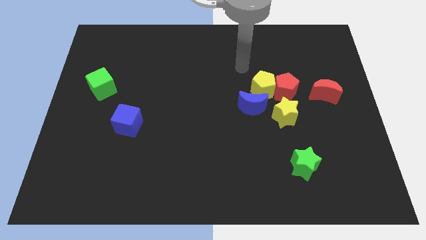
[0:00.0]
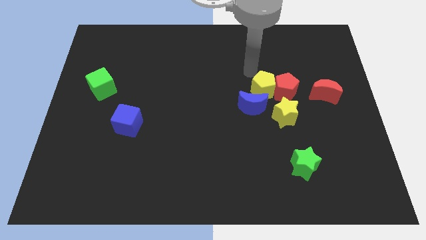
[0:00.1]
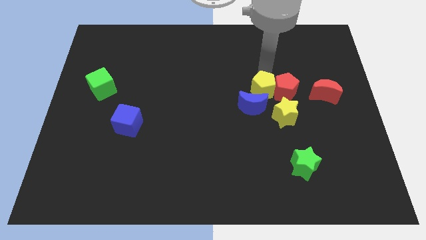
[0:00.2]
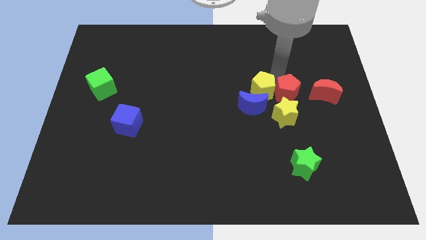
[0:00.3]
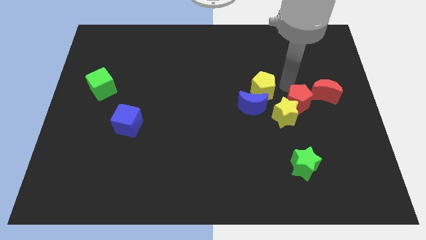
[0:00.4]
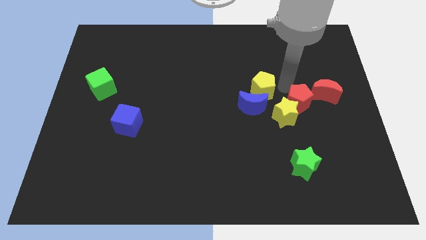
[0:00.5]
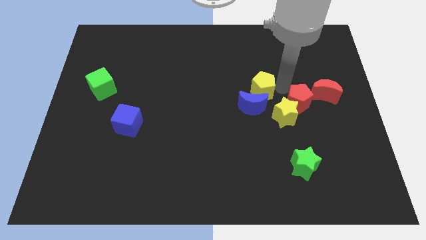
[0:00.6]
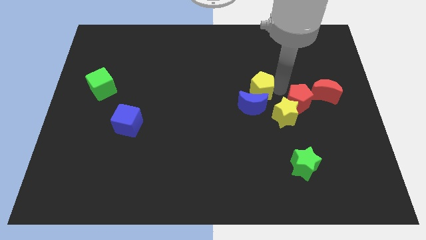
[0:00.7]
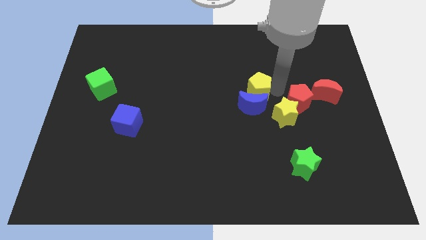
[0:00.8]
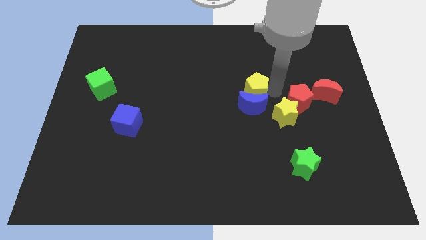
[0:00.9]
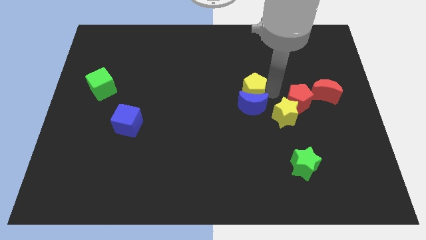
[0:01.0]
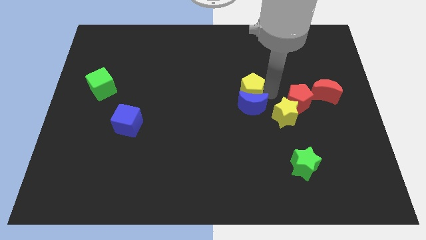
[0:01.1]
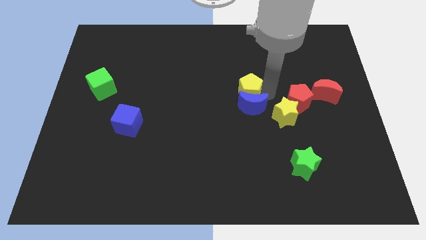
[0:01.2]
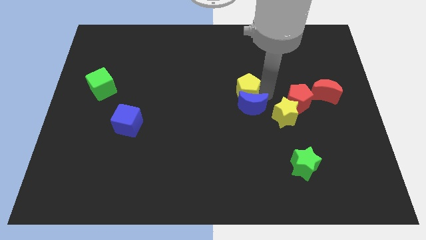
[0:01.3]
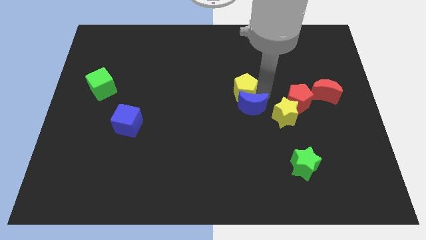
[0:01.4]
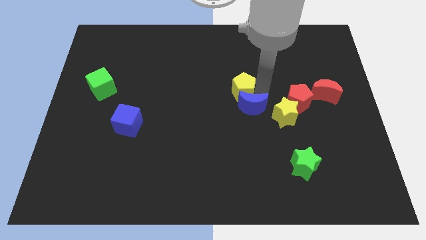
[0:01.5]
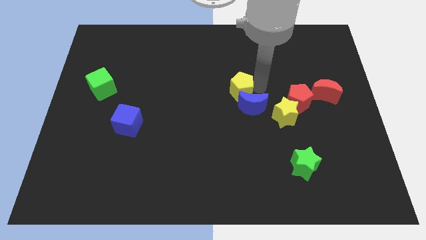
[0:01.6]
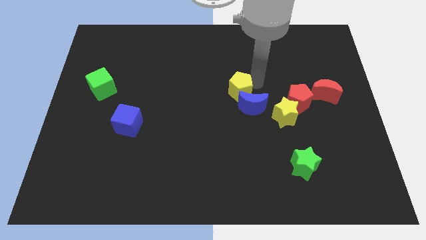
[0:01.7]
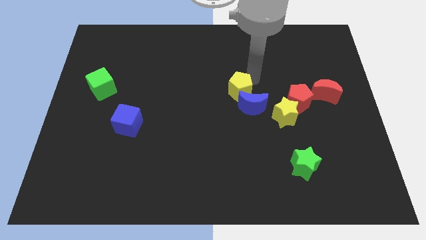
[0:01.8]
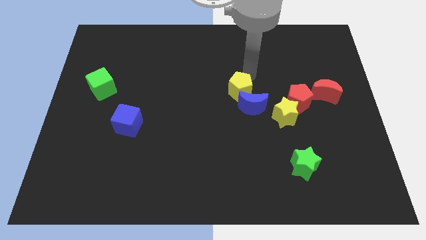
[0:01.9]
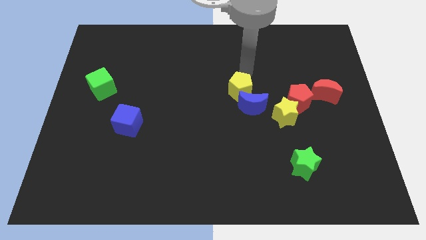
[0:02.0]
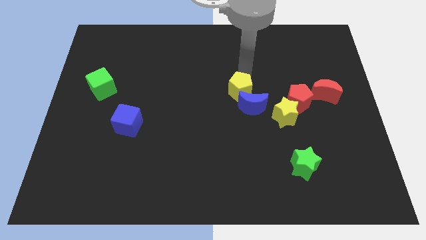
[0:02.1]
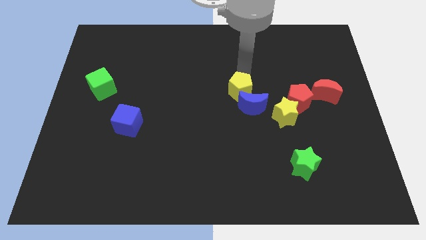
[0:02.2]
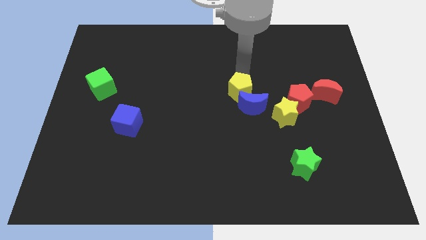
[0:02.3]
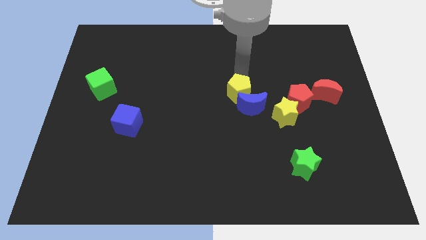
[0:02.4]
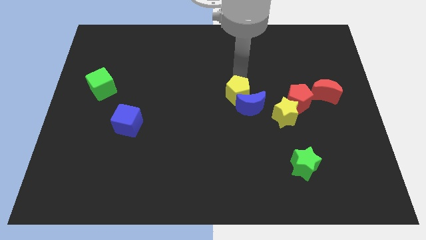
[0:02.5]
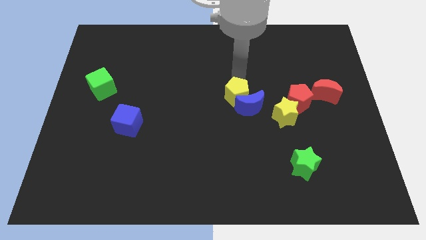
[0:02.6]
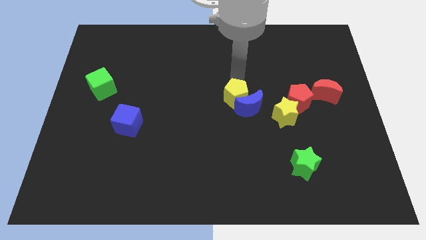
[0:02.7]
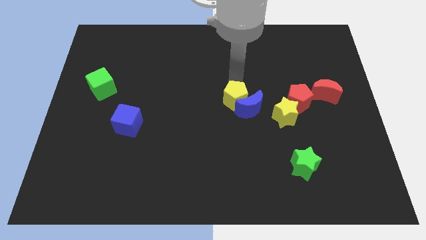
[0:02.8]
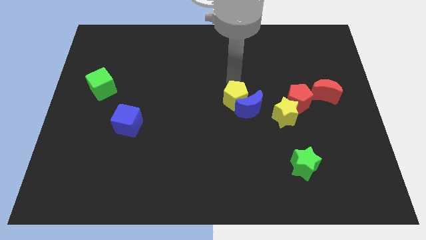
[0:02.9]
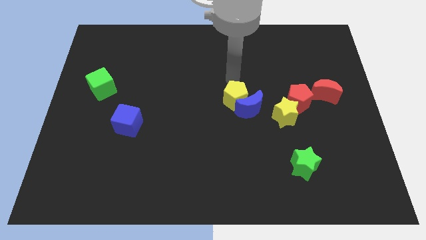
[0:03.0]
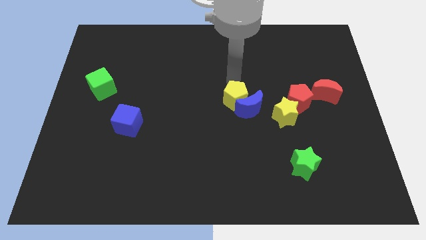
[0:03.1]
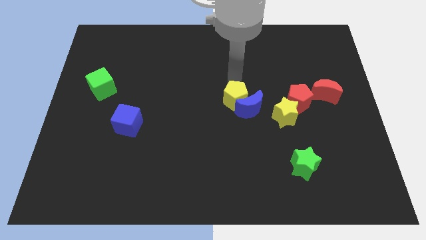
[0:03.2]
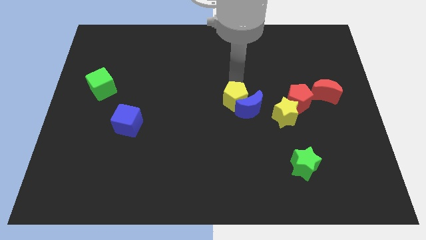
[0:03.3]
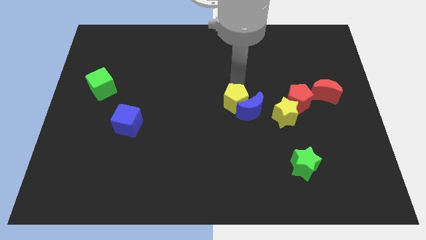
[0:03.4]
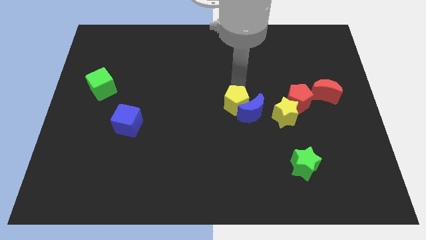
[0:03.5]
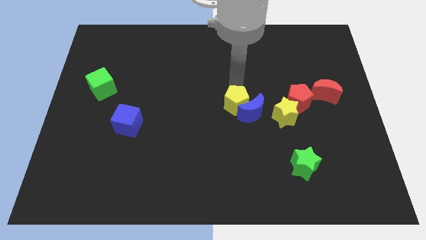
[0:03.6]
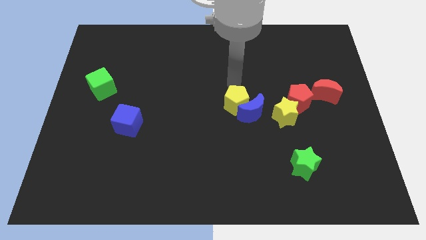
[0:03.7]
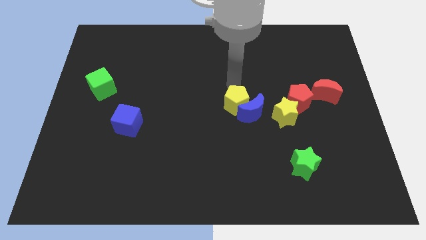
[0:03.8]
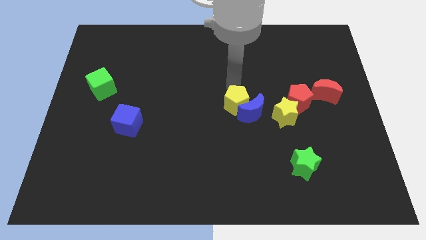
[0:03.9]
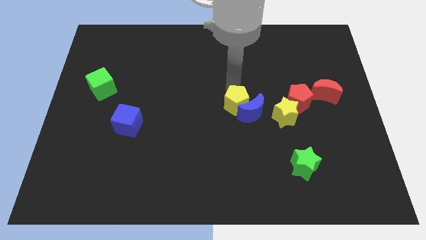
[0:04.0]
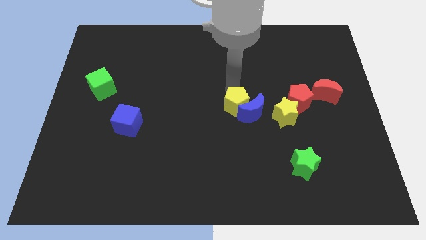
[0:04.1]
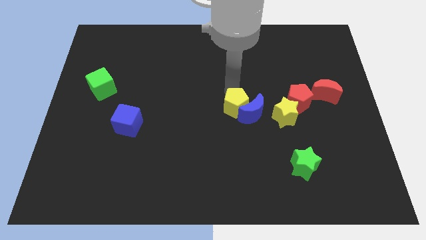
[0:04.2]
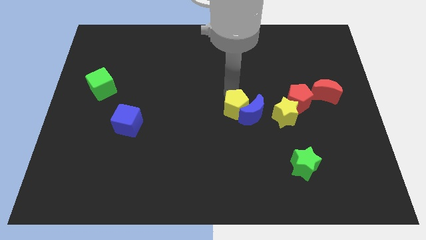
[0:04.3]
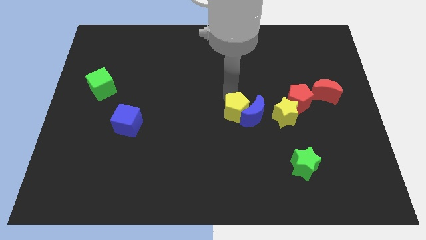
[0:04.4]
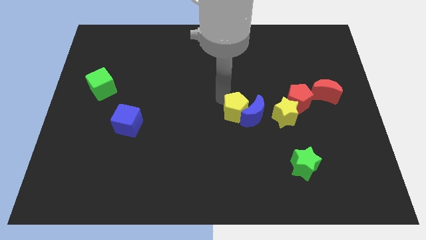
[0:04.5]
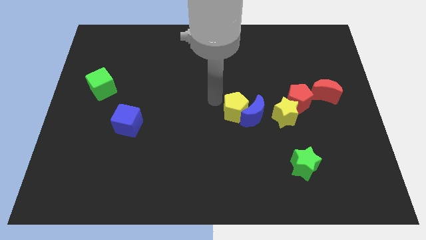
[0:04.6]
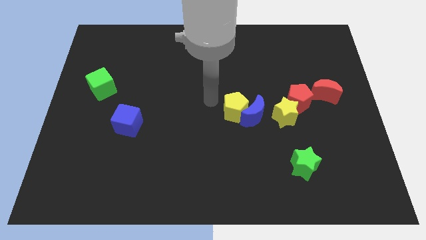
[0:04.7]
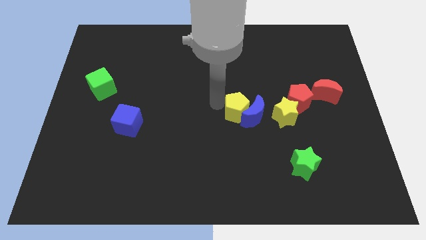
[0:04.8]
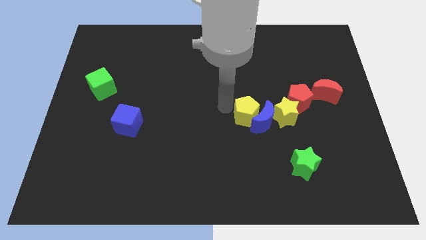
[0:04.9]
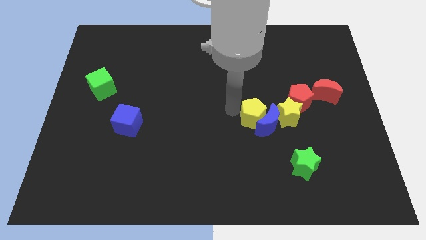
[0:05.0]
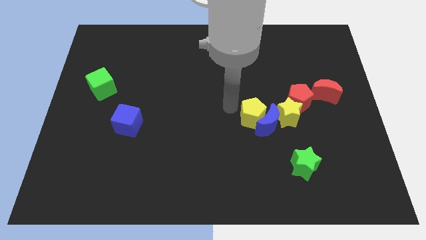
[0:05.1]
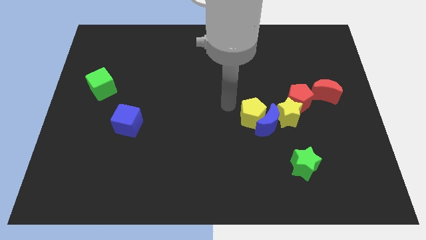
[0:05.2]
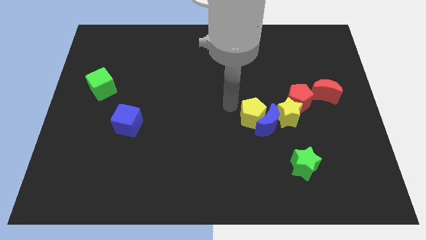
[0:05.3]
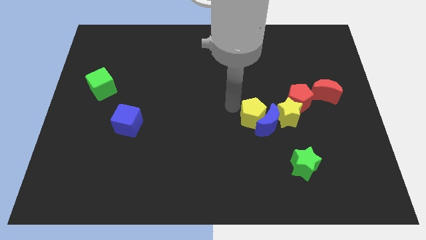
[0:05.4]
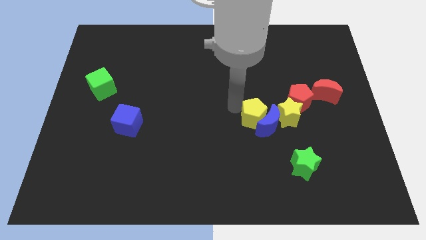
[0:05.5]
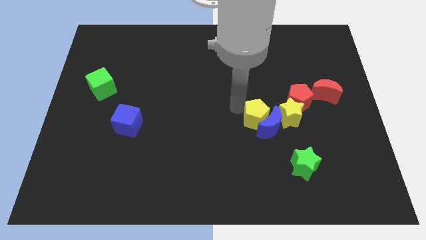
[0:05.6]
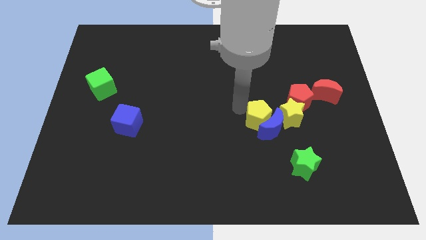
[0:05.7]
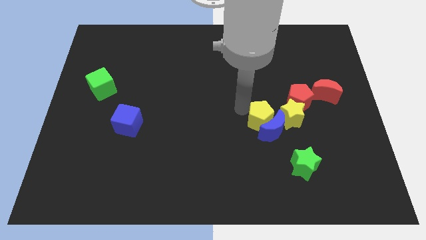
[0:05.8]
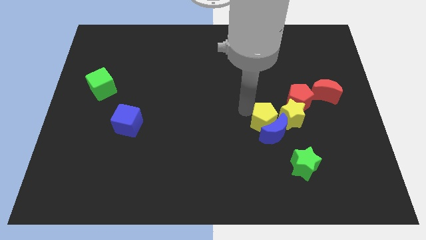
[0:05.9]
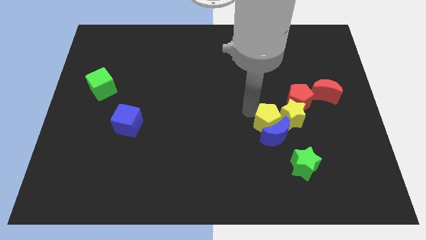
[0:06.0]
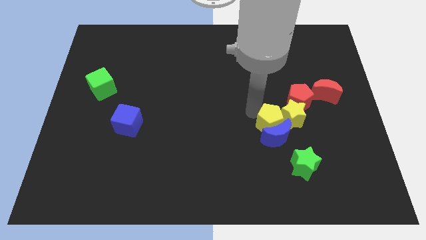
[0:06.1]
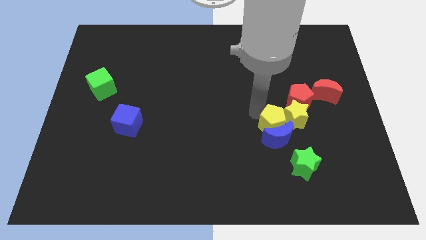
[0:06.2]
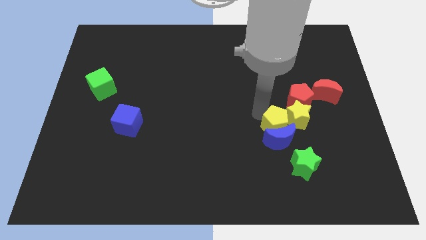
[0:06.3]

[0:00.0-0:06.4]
slightly slide the yellow pentagon down and right

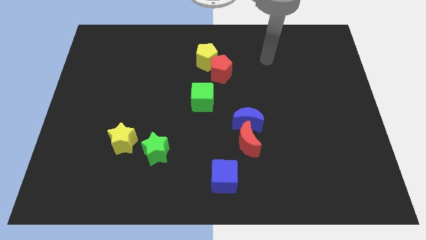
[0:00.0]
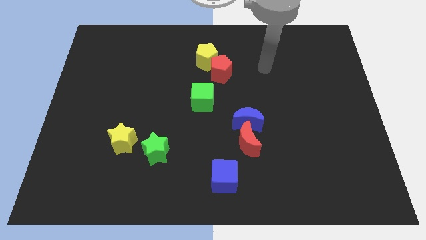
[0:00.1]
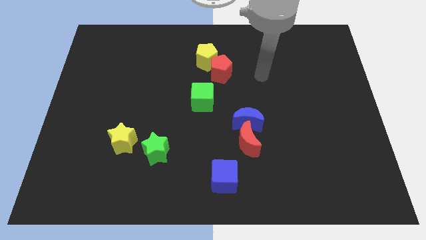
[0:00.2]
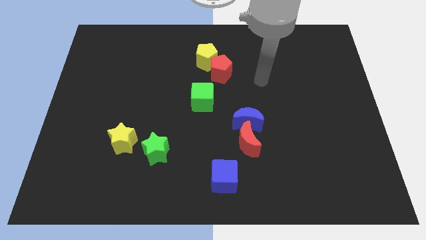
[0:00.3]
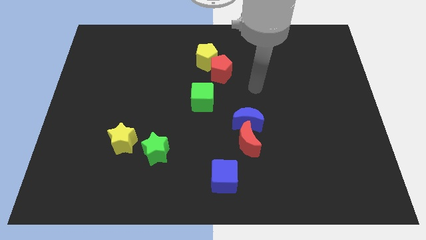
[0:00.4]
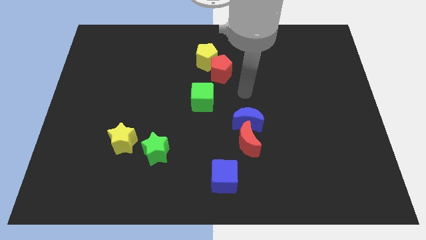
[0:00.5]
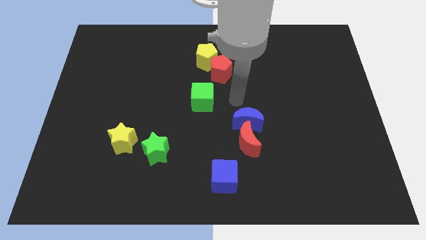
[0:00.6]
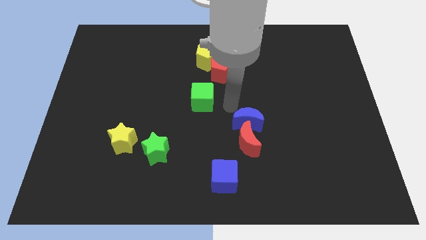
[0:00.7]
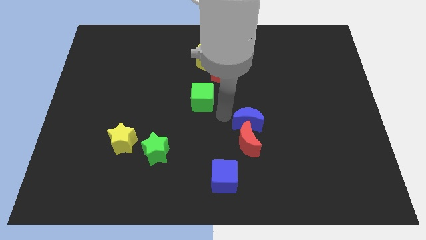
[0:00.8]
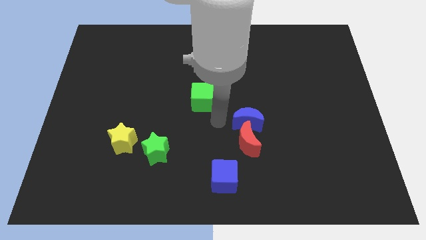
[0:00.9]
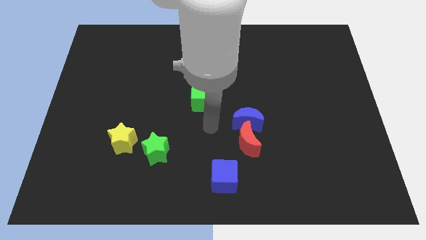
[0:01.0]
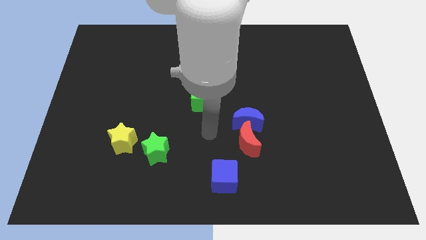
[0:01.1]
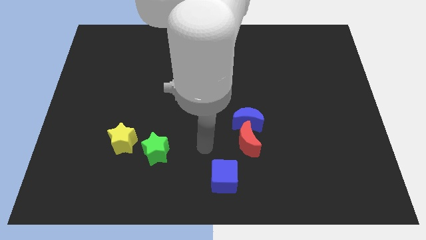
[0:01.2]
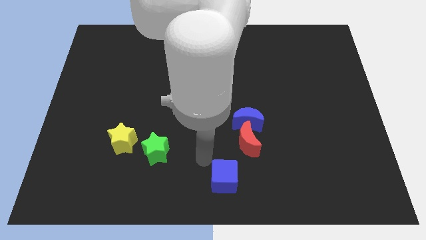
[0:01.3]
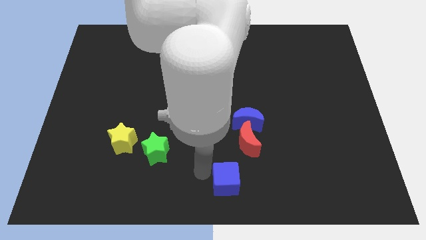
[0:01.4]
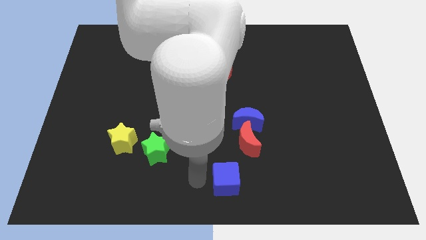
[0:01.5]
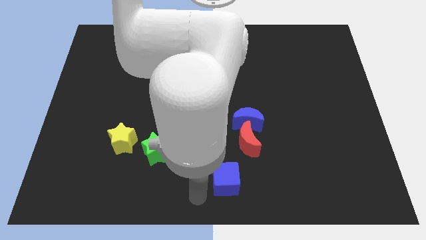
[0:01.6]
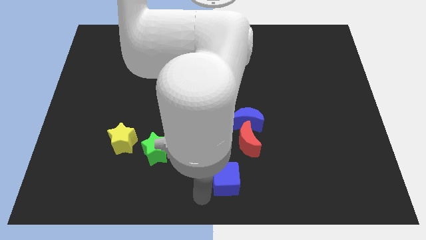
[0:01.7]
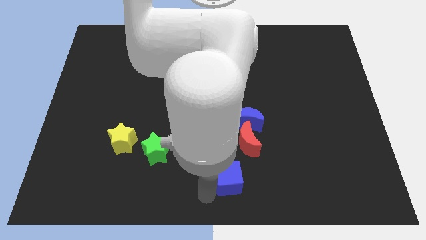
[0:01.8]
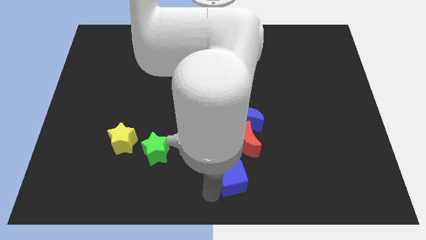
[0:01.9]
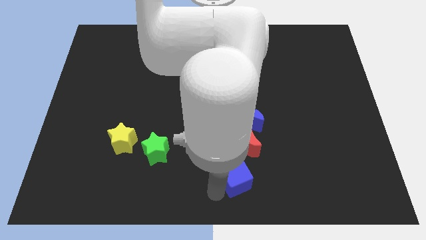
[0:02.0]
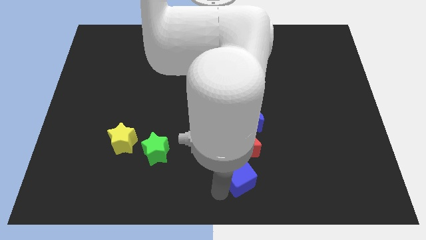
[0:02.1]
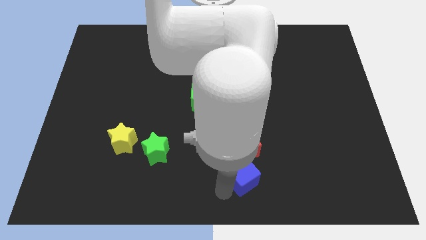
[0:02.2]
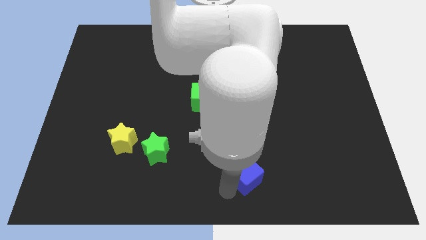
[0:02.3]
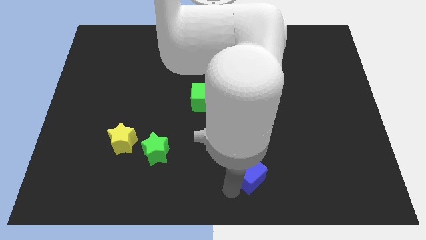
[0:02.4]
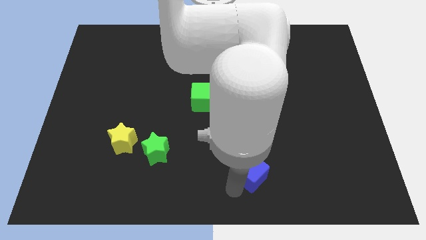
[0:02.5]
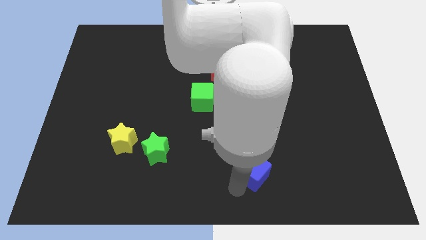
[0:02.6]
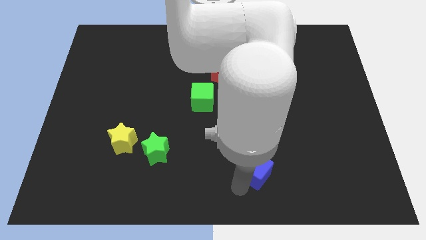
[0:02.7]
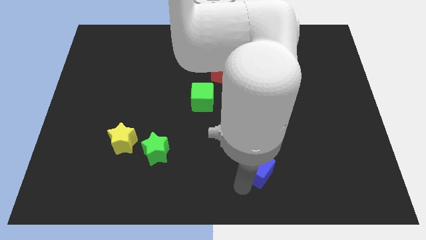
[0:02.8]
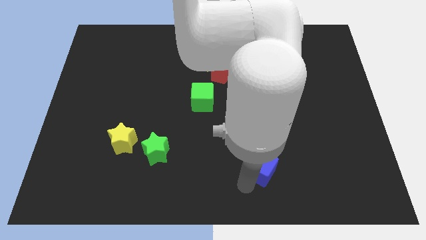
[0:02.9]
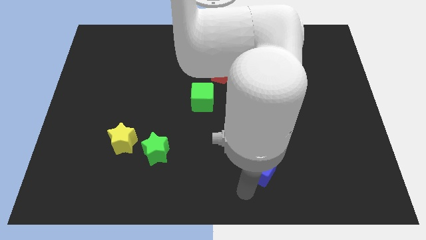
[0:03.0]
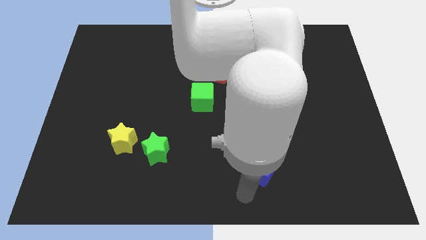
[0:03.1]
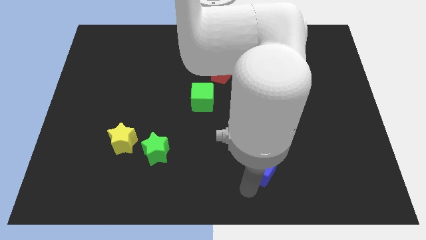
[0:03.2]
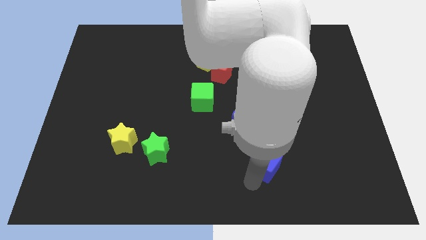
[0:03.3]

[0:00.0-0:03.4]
slide the blue cube a little bit upwards and to the right
